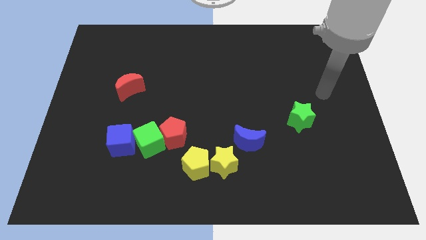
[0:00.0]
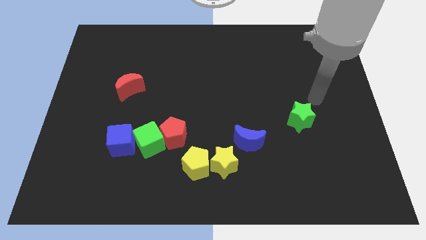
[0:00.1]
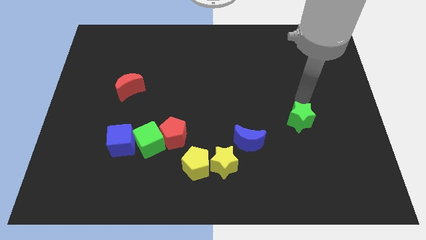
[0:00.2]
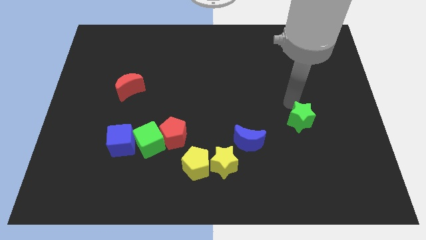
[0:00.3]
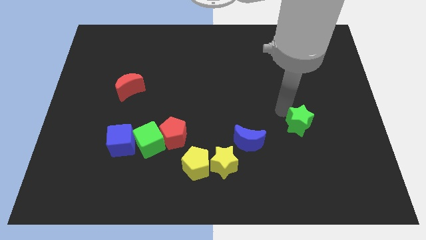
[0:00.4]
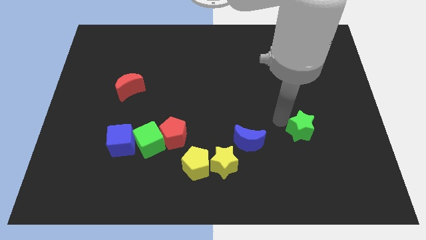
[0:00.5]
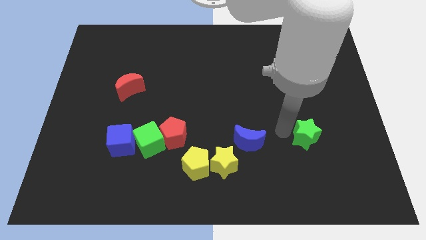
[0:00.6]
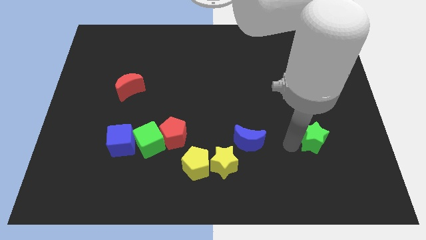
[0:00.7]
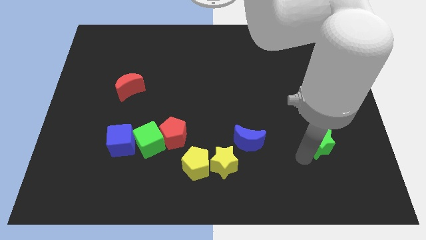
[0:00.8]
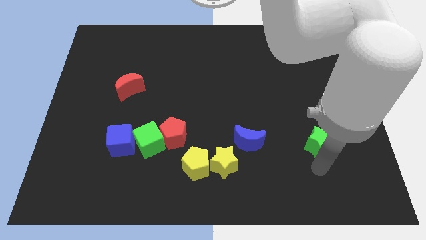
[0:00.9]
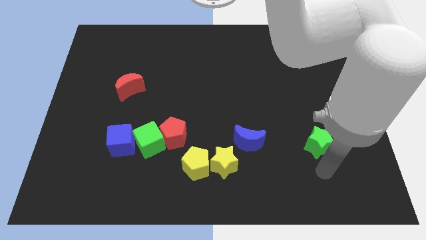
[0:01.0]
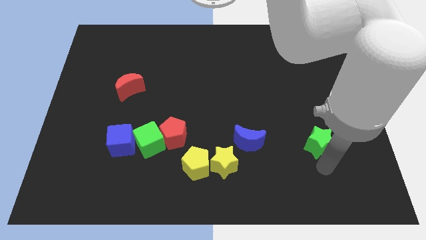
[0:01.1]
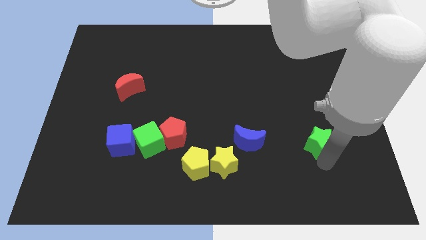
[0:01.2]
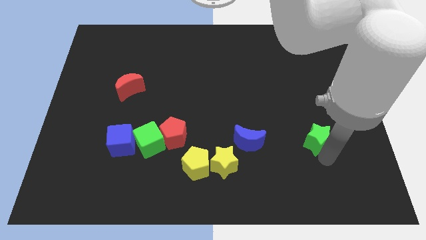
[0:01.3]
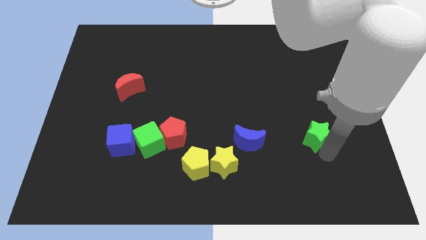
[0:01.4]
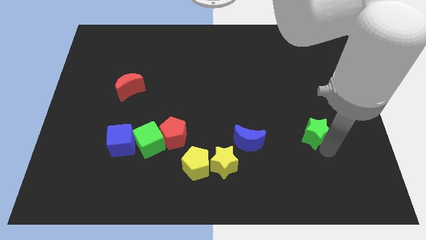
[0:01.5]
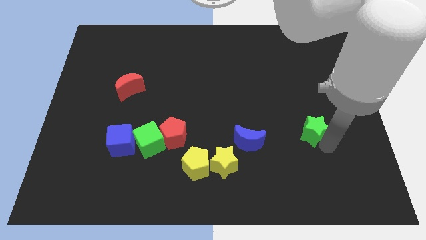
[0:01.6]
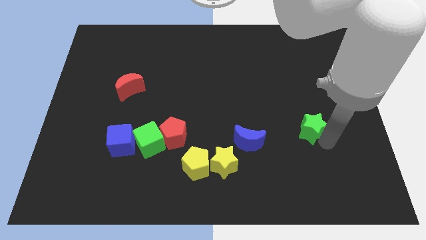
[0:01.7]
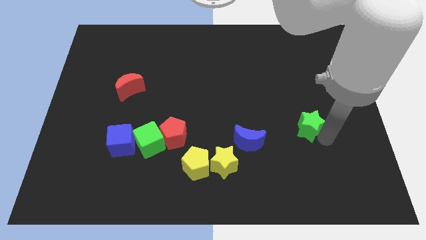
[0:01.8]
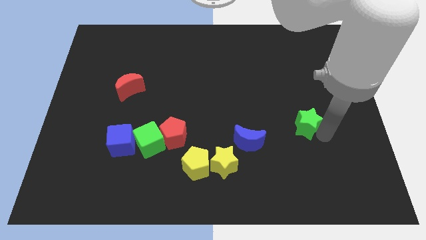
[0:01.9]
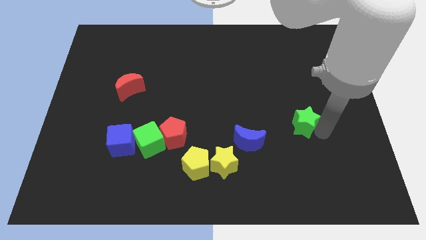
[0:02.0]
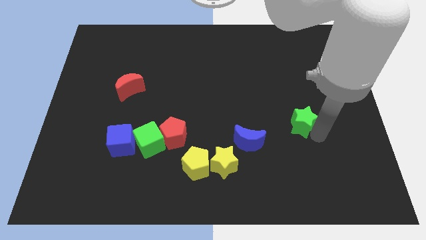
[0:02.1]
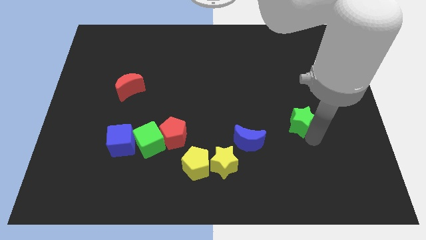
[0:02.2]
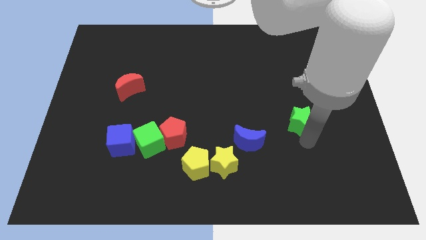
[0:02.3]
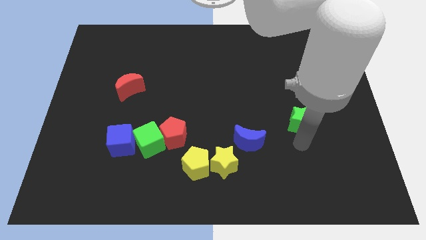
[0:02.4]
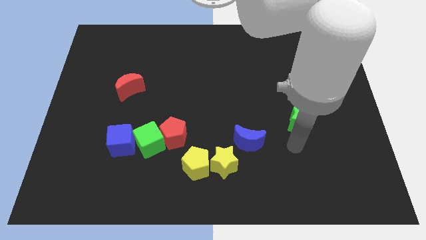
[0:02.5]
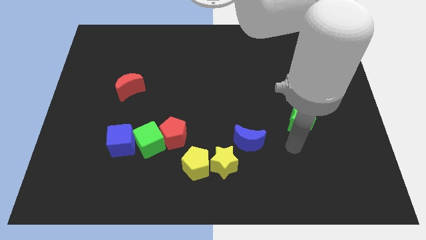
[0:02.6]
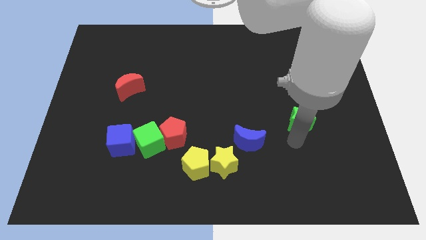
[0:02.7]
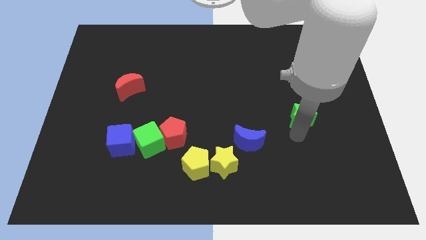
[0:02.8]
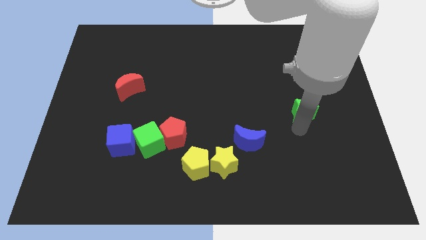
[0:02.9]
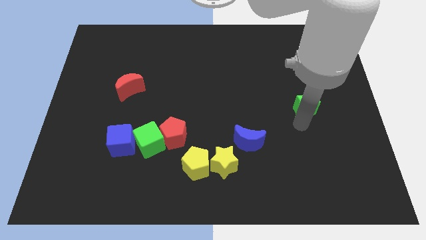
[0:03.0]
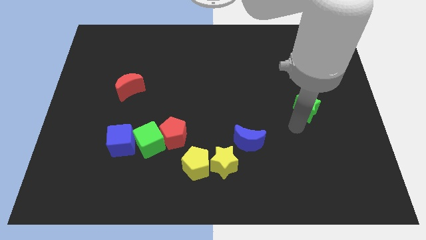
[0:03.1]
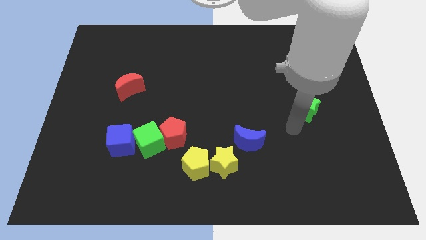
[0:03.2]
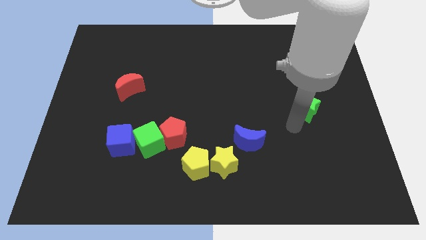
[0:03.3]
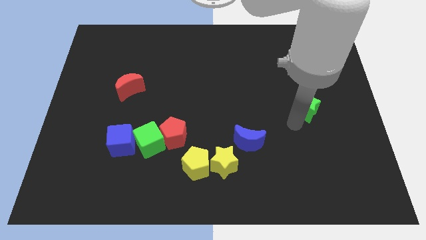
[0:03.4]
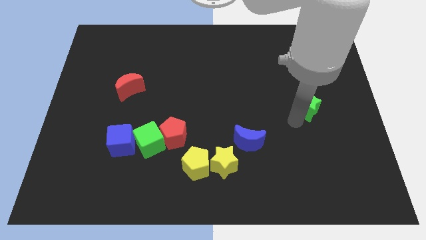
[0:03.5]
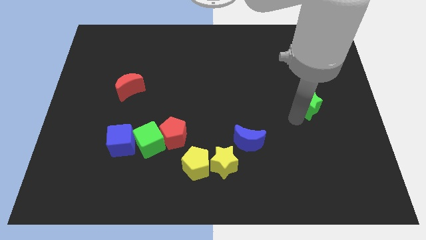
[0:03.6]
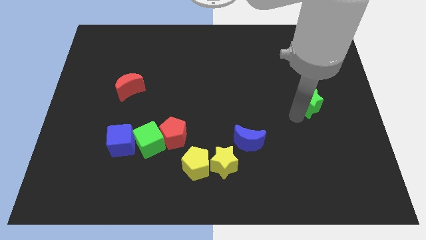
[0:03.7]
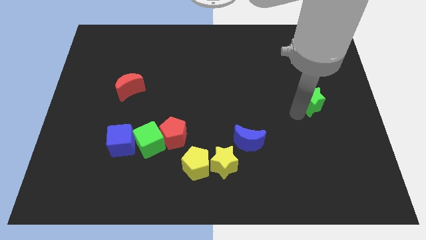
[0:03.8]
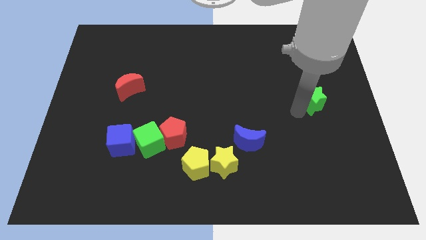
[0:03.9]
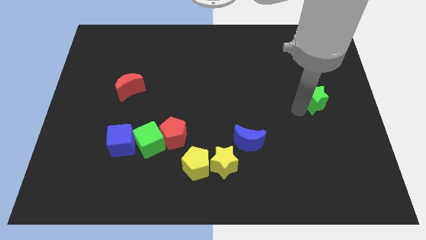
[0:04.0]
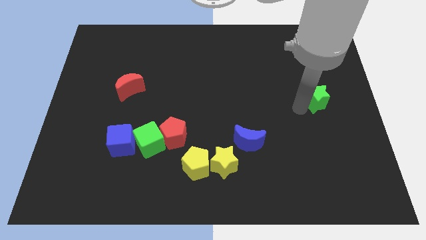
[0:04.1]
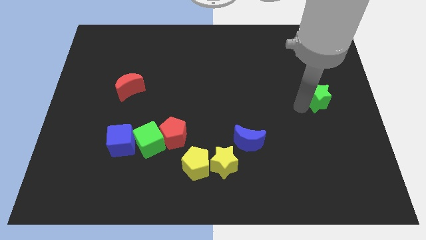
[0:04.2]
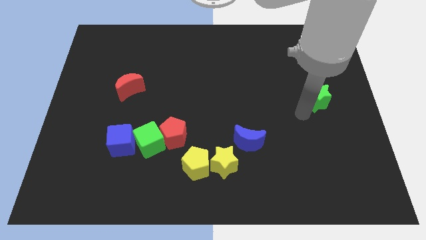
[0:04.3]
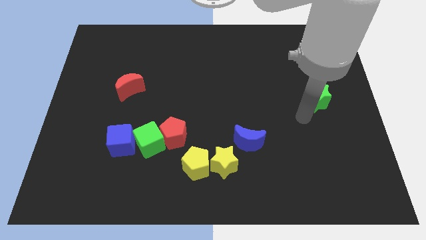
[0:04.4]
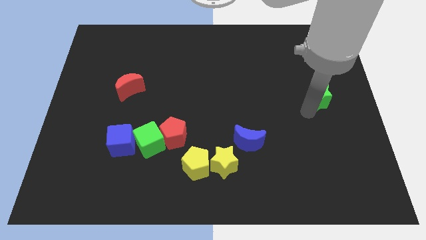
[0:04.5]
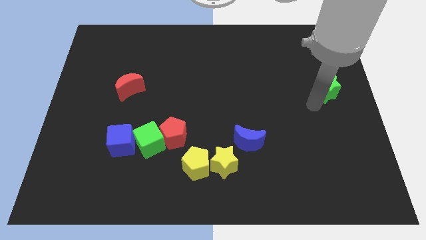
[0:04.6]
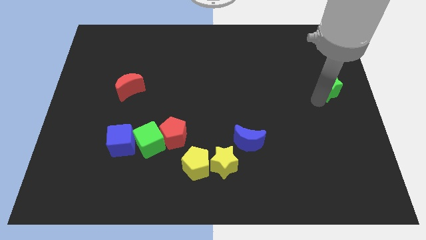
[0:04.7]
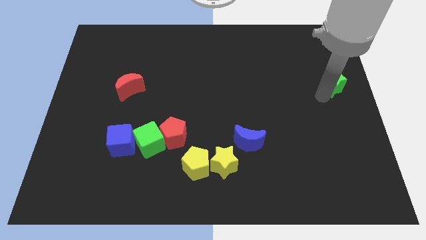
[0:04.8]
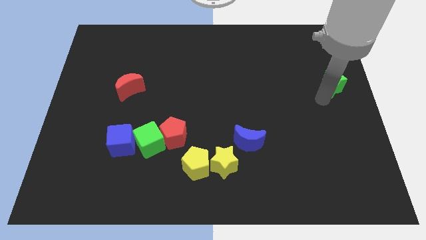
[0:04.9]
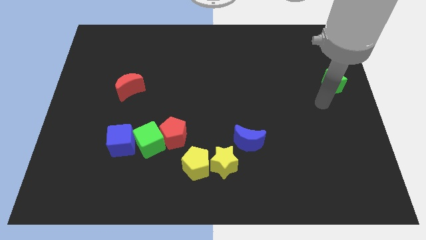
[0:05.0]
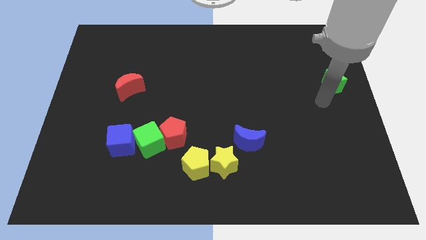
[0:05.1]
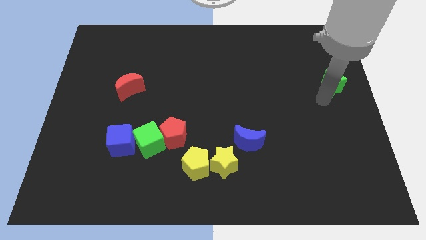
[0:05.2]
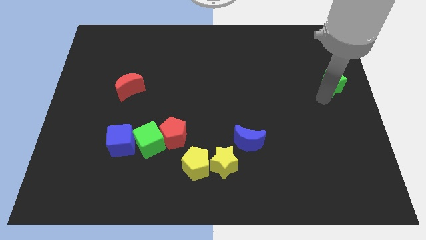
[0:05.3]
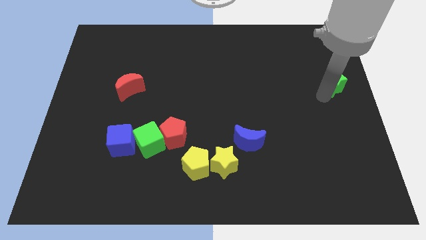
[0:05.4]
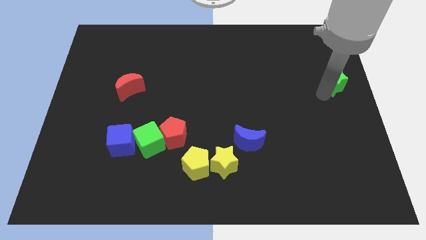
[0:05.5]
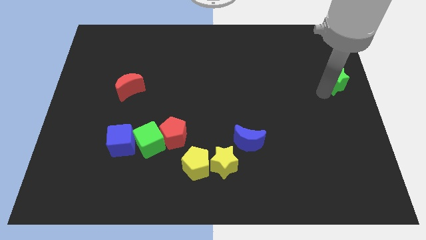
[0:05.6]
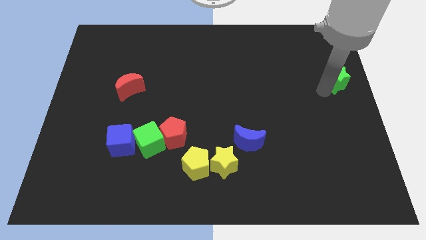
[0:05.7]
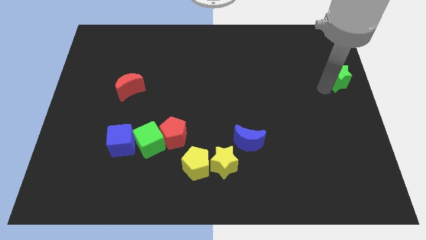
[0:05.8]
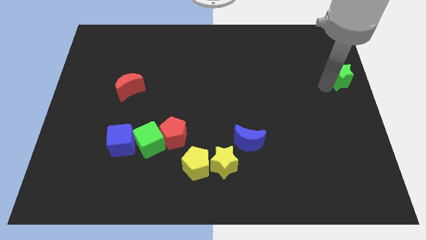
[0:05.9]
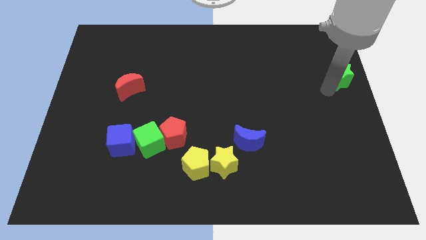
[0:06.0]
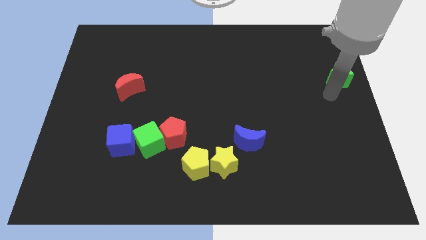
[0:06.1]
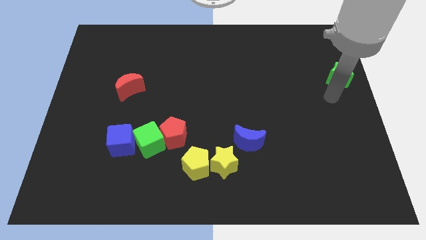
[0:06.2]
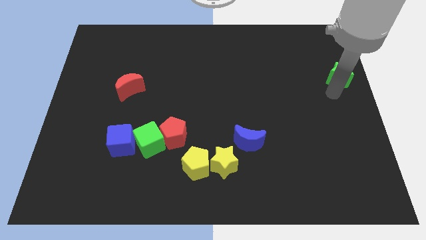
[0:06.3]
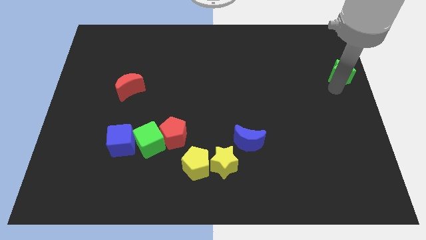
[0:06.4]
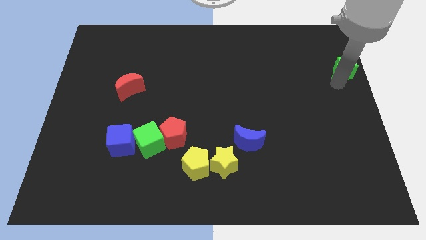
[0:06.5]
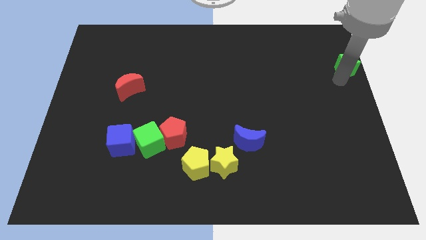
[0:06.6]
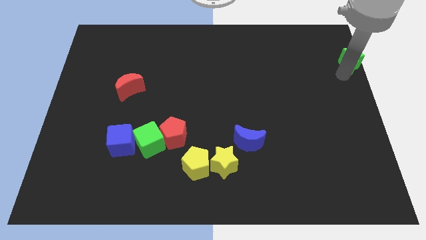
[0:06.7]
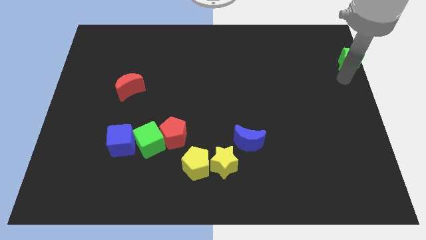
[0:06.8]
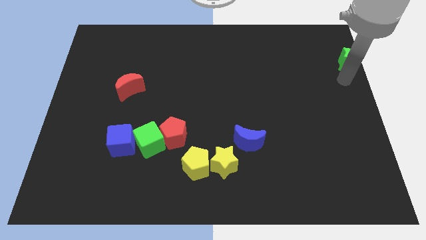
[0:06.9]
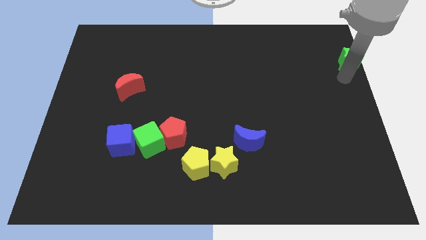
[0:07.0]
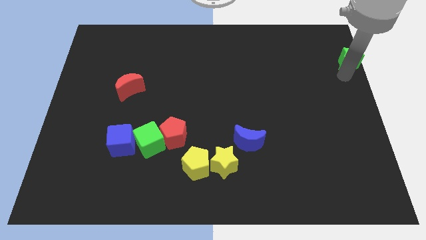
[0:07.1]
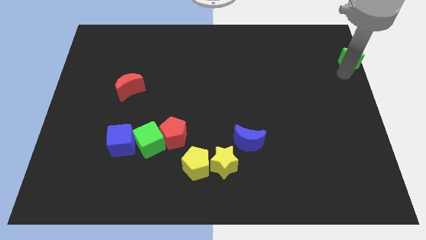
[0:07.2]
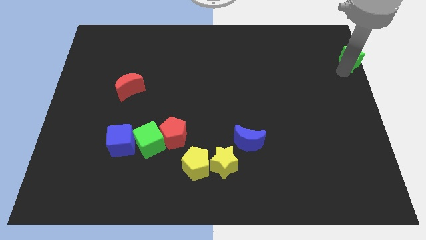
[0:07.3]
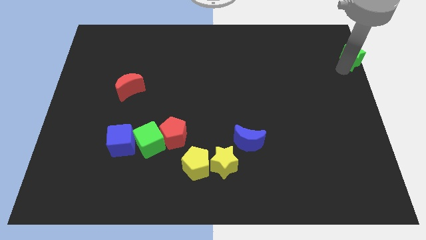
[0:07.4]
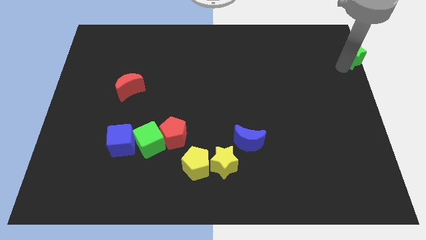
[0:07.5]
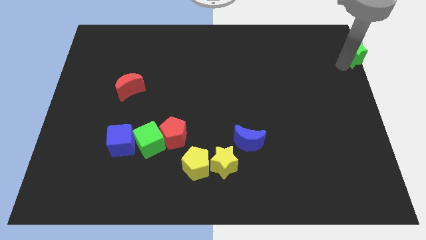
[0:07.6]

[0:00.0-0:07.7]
put the green star to the top right of the board
